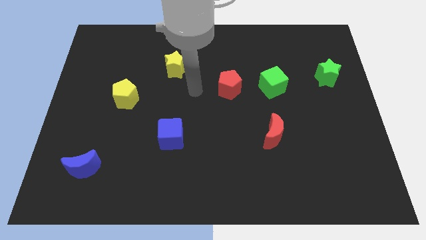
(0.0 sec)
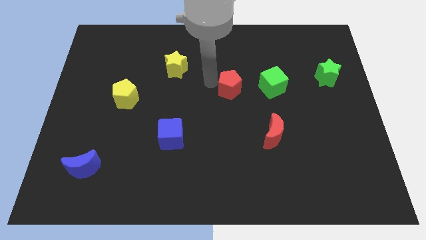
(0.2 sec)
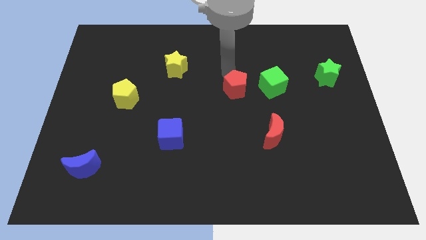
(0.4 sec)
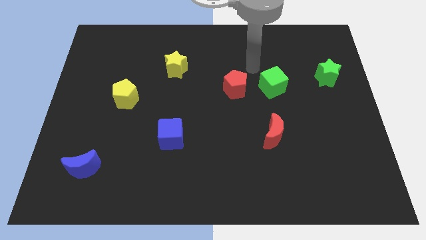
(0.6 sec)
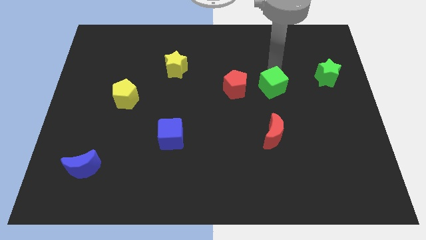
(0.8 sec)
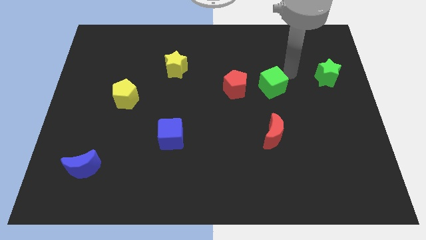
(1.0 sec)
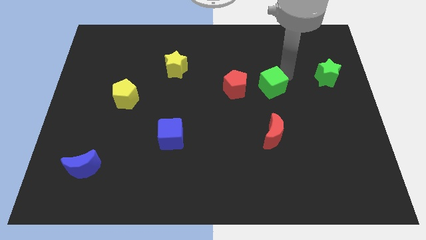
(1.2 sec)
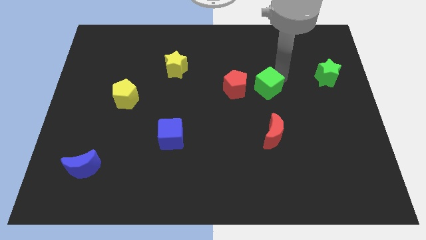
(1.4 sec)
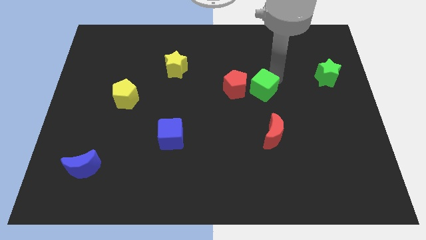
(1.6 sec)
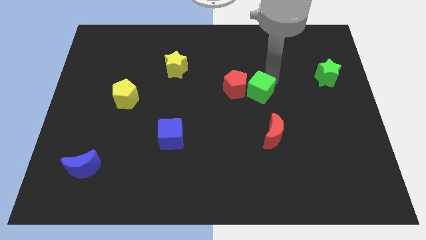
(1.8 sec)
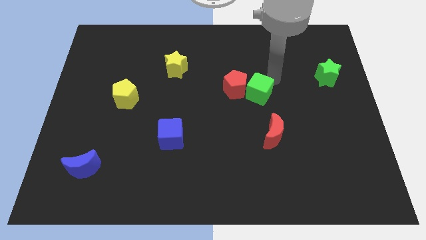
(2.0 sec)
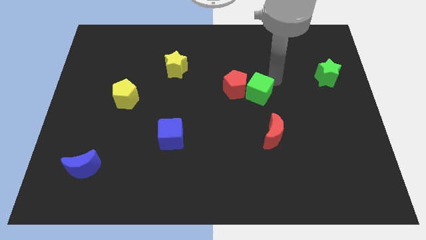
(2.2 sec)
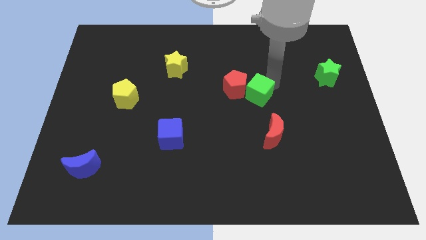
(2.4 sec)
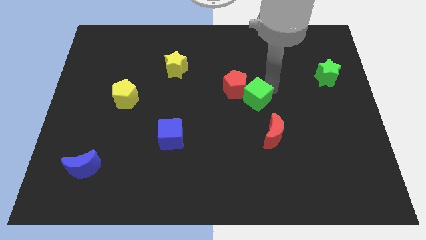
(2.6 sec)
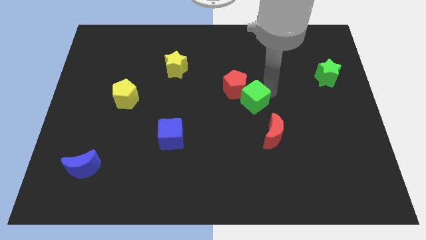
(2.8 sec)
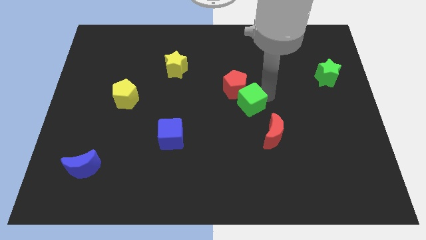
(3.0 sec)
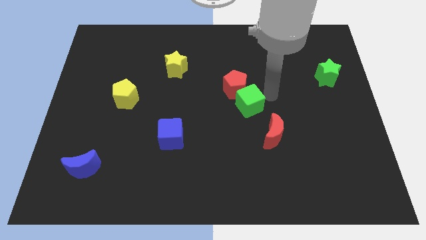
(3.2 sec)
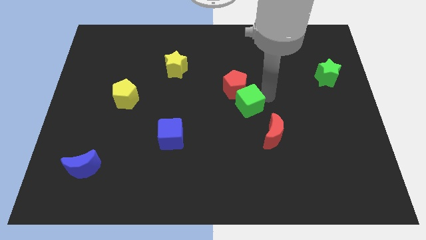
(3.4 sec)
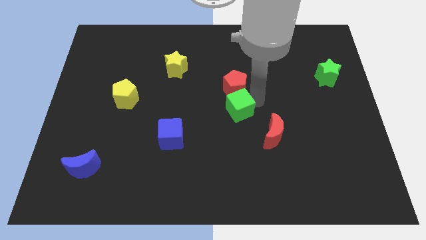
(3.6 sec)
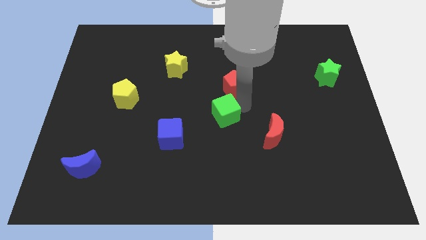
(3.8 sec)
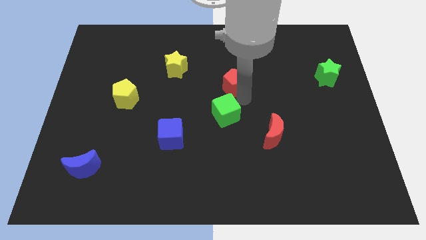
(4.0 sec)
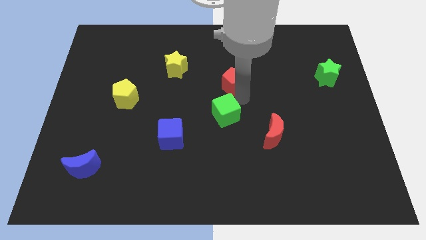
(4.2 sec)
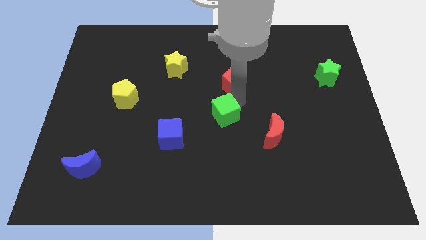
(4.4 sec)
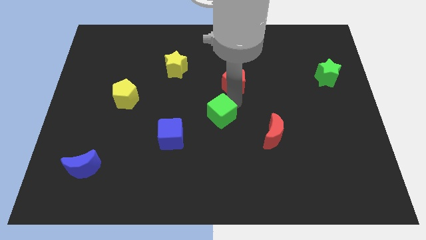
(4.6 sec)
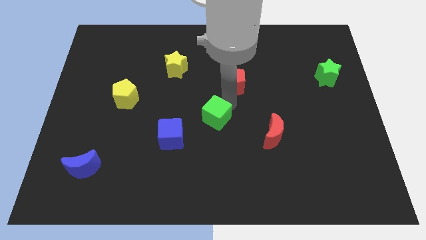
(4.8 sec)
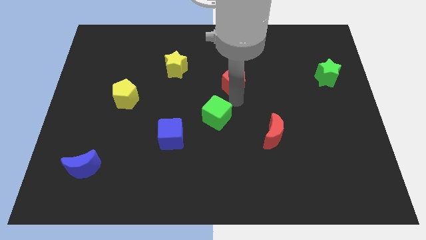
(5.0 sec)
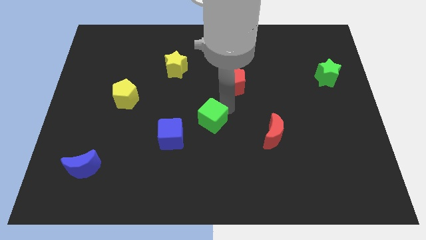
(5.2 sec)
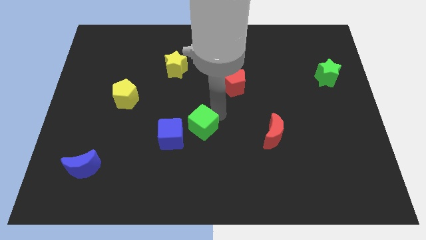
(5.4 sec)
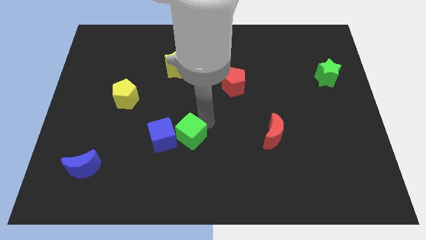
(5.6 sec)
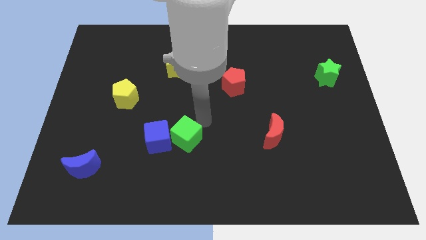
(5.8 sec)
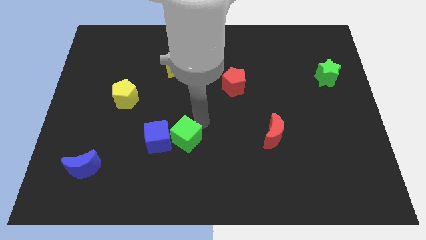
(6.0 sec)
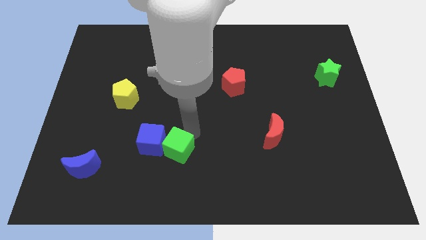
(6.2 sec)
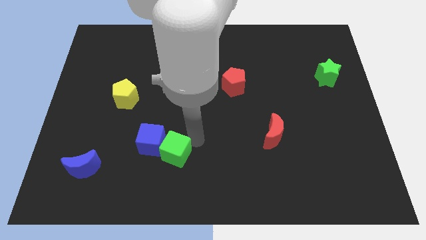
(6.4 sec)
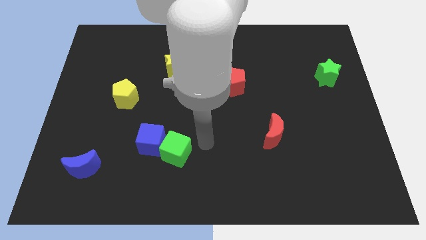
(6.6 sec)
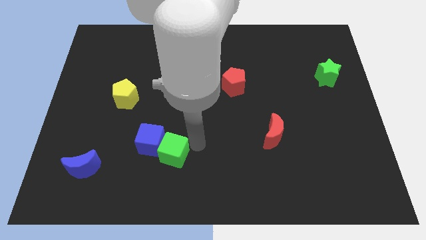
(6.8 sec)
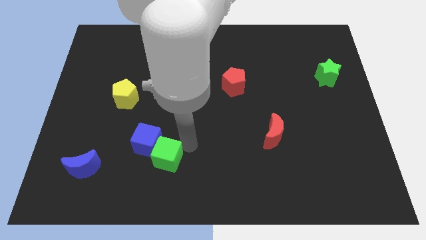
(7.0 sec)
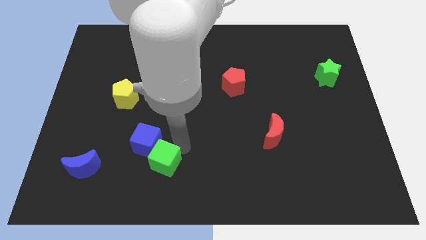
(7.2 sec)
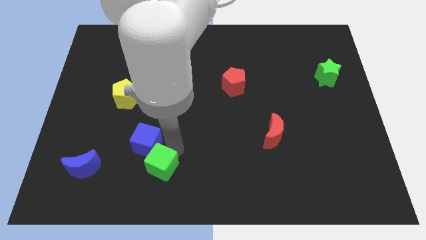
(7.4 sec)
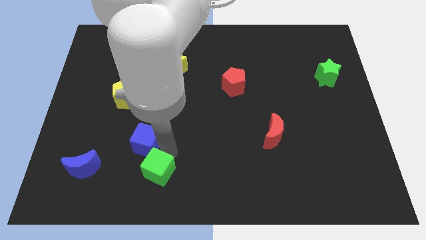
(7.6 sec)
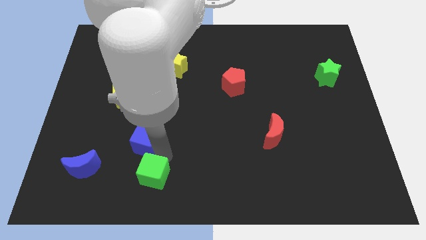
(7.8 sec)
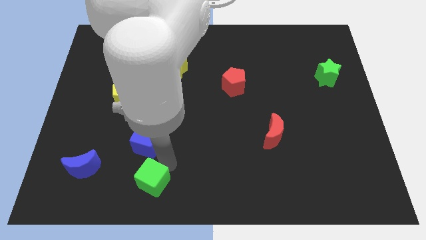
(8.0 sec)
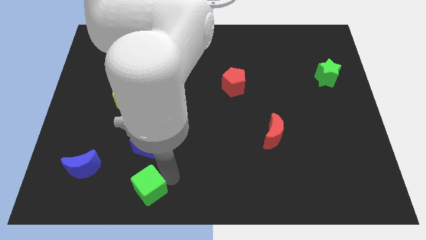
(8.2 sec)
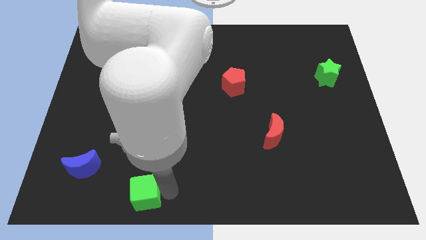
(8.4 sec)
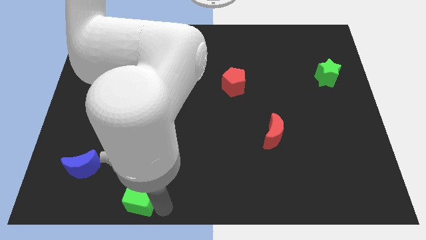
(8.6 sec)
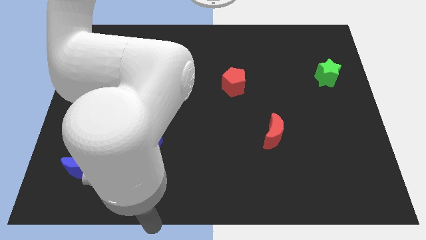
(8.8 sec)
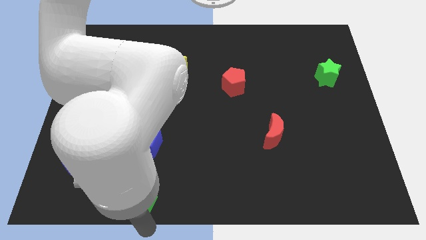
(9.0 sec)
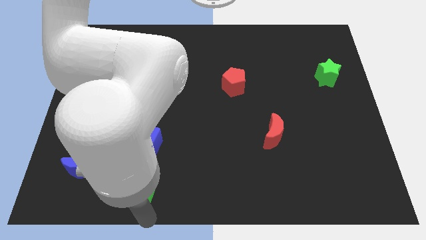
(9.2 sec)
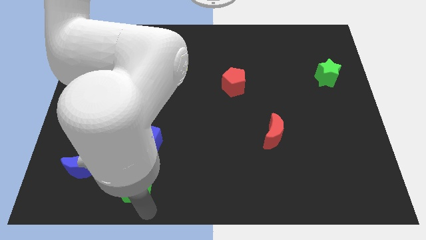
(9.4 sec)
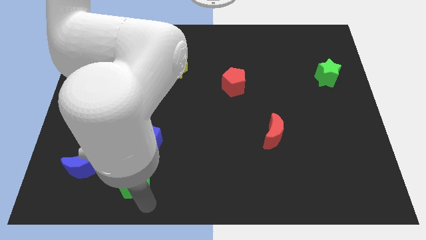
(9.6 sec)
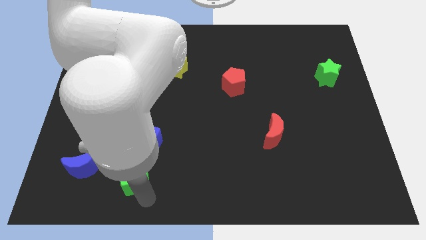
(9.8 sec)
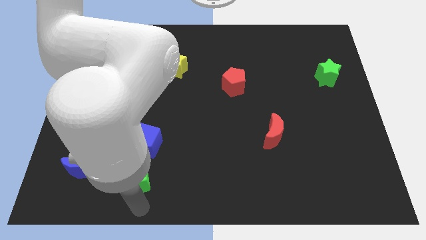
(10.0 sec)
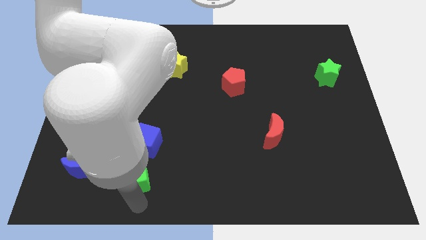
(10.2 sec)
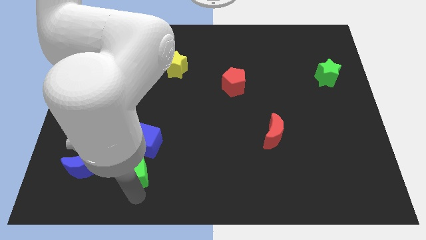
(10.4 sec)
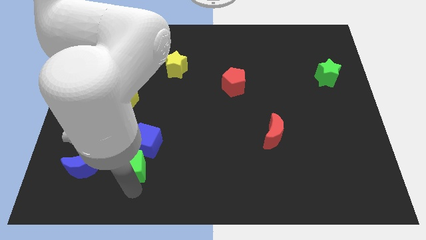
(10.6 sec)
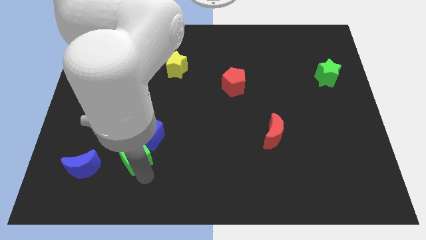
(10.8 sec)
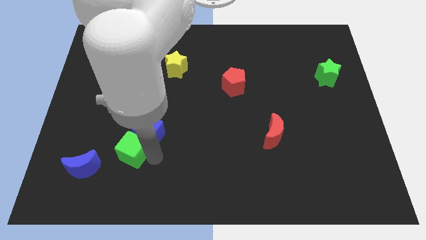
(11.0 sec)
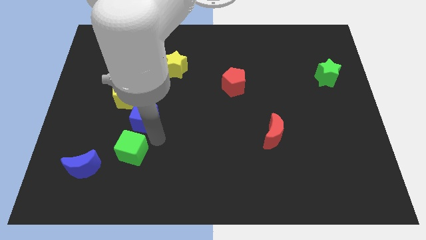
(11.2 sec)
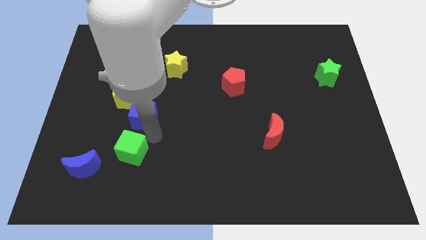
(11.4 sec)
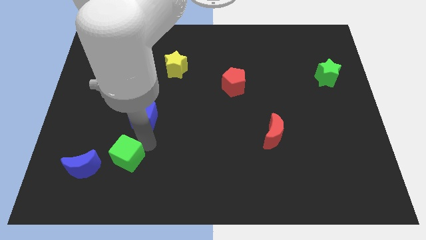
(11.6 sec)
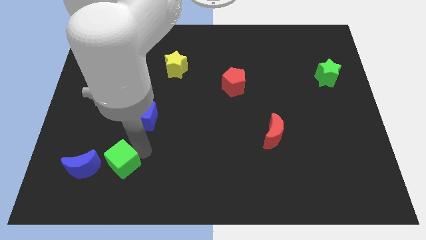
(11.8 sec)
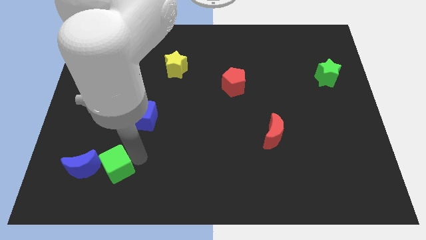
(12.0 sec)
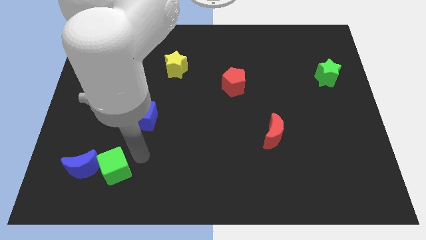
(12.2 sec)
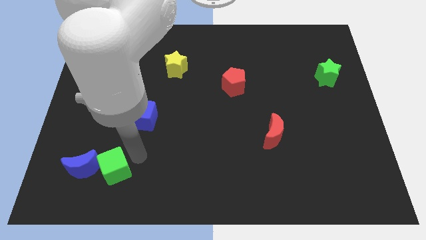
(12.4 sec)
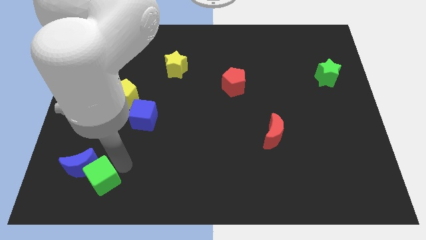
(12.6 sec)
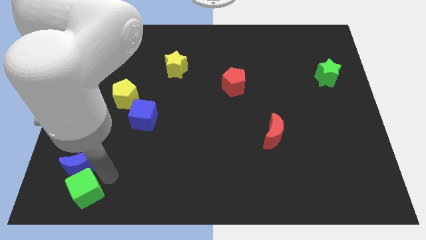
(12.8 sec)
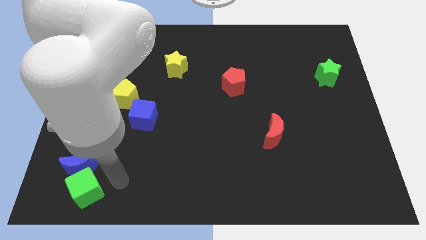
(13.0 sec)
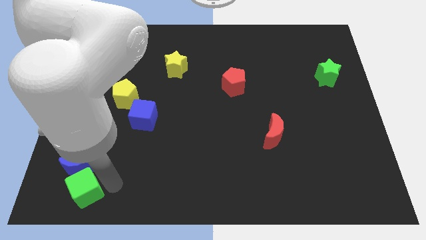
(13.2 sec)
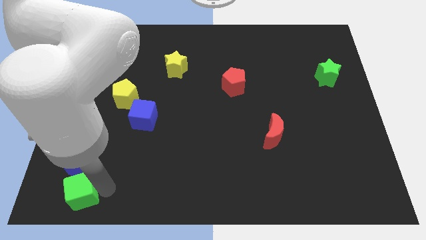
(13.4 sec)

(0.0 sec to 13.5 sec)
move the green cube to the lower left corner
